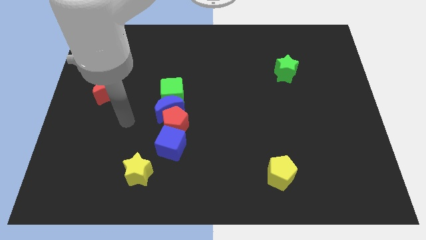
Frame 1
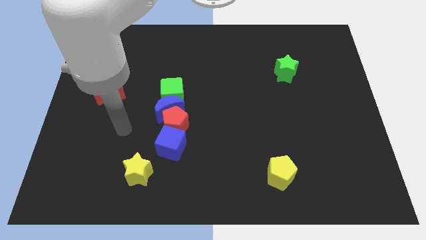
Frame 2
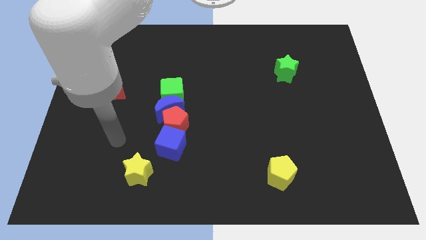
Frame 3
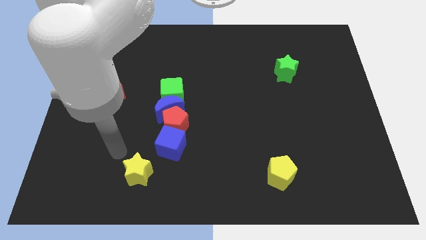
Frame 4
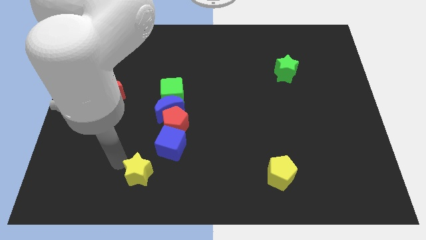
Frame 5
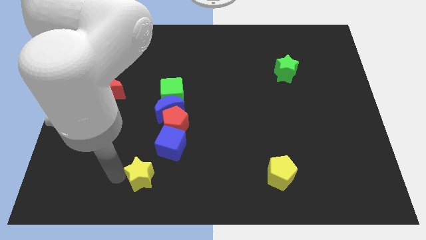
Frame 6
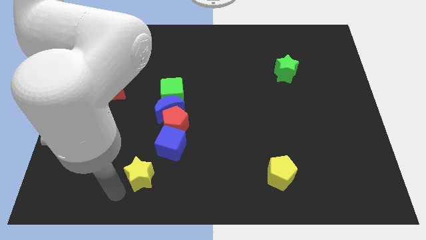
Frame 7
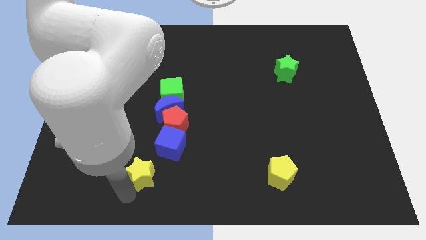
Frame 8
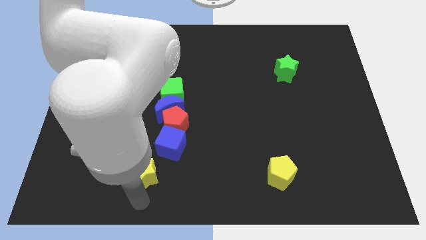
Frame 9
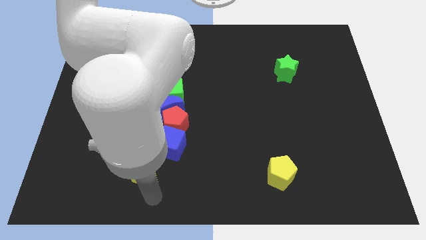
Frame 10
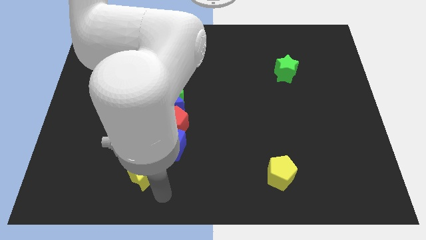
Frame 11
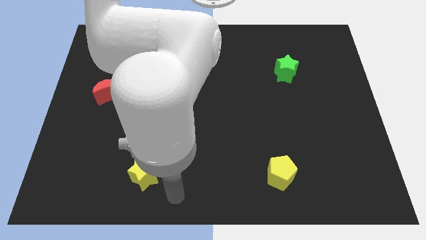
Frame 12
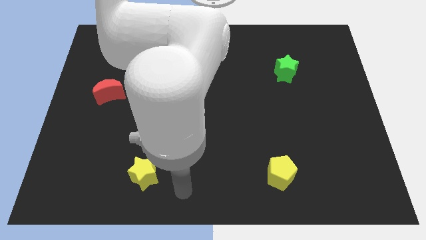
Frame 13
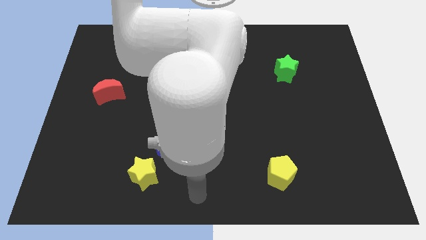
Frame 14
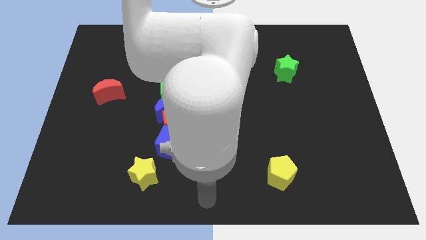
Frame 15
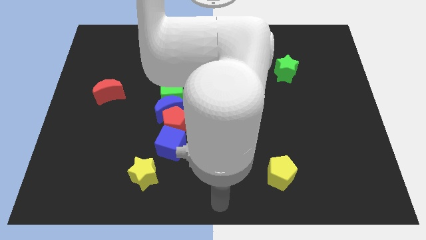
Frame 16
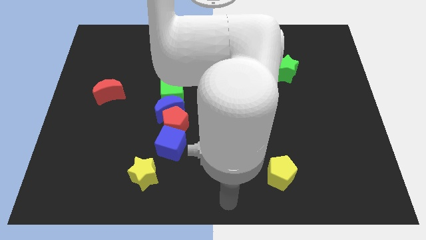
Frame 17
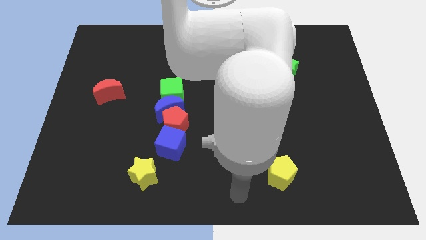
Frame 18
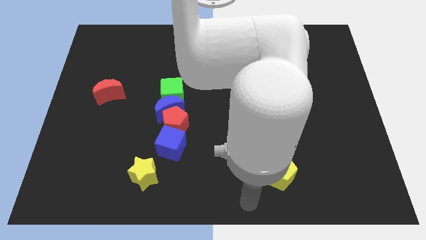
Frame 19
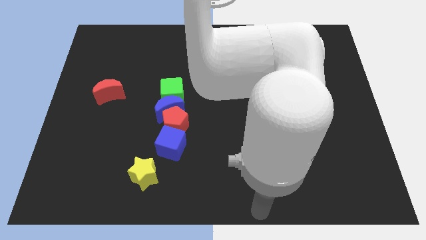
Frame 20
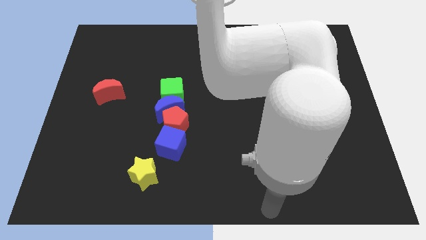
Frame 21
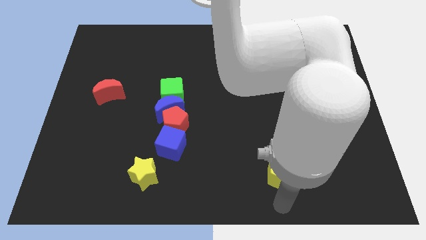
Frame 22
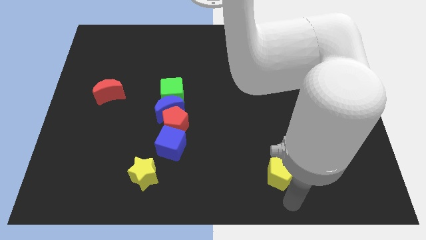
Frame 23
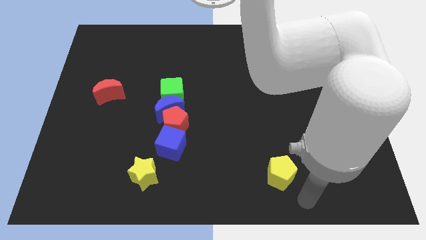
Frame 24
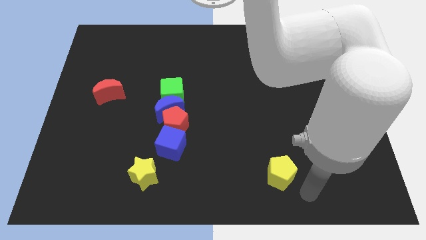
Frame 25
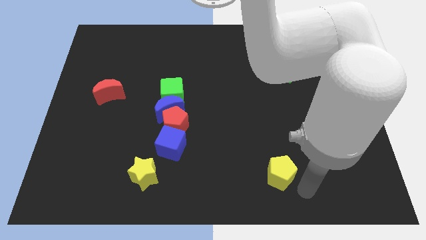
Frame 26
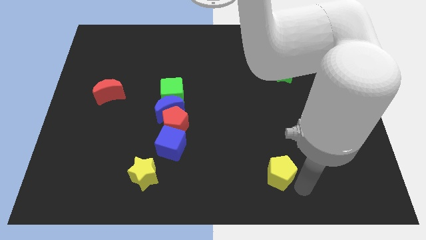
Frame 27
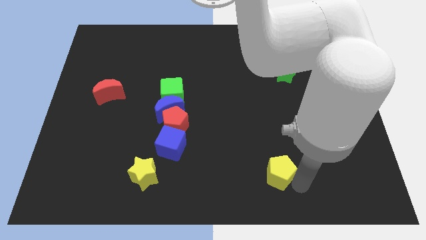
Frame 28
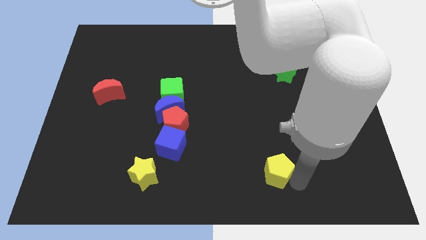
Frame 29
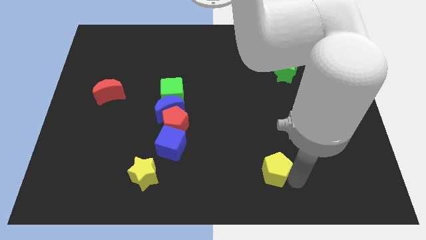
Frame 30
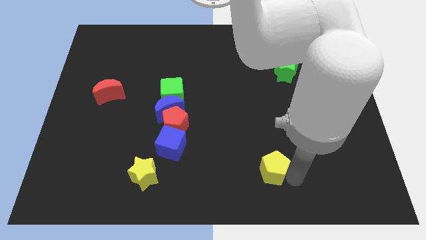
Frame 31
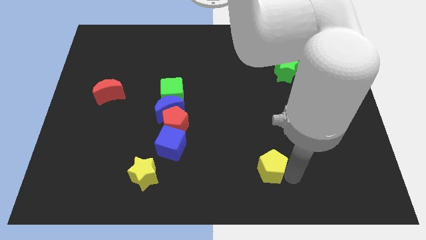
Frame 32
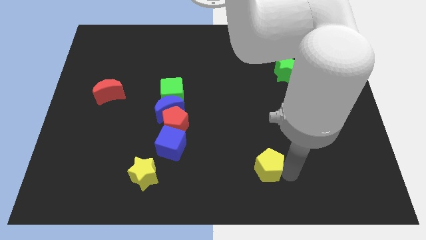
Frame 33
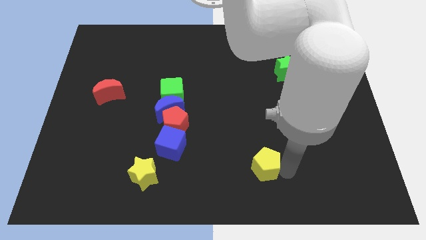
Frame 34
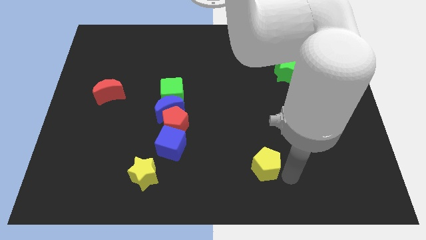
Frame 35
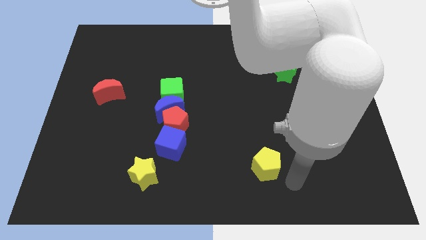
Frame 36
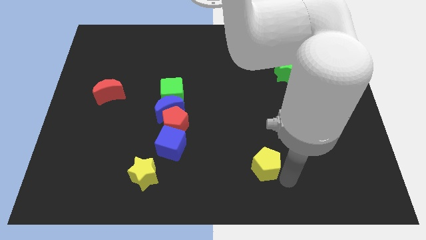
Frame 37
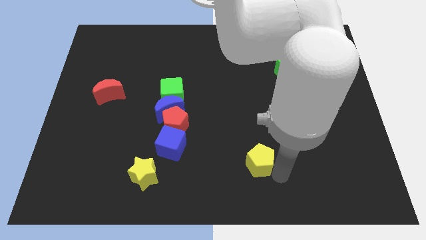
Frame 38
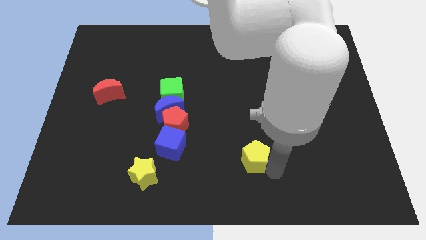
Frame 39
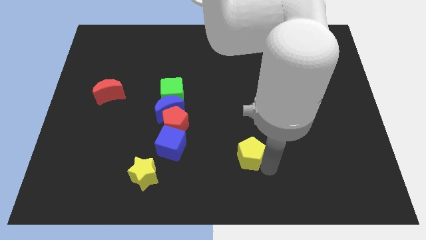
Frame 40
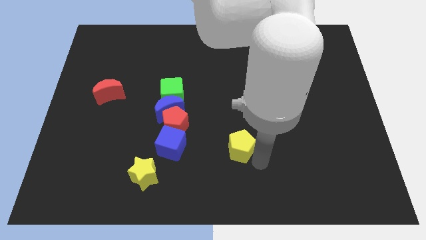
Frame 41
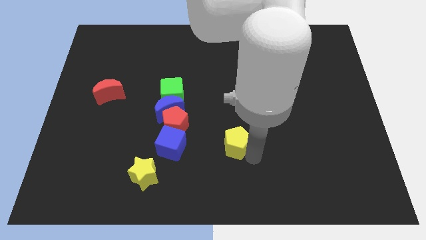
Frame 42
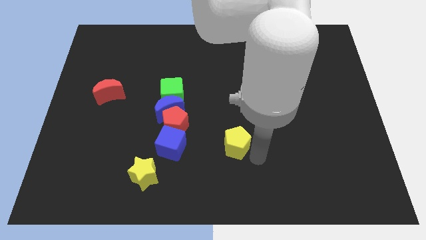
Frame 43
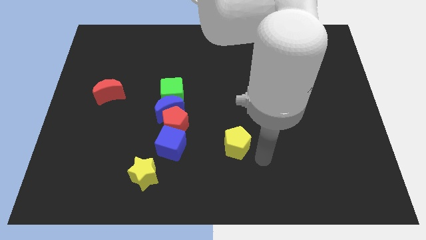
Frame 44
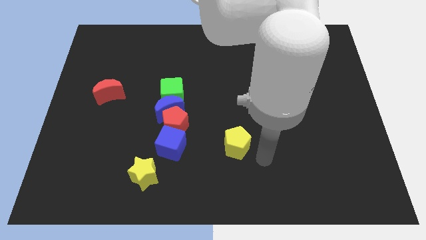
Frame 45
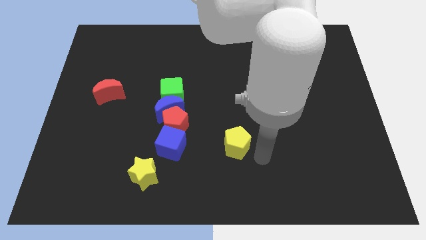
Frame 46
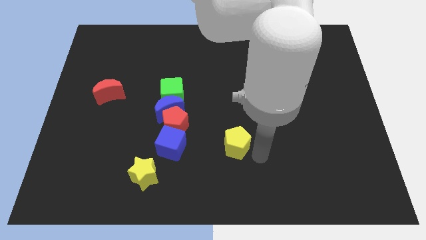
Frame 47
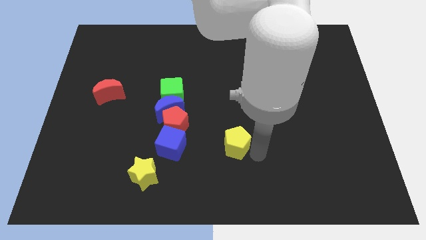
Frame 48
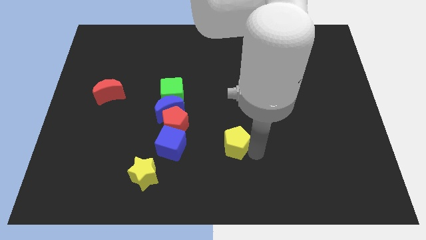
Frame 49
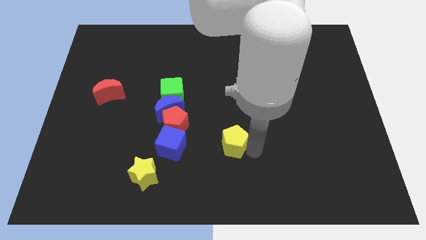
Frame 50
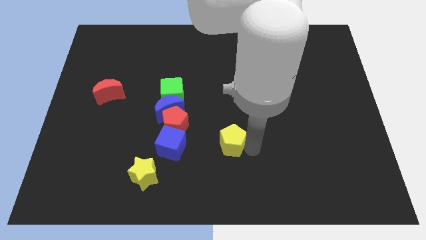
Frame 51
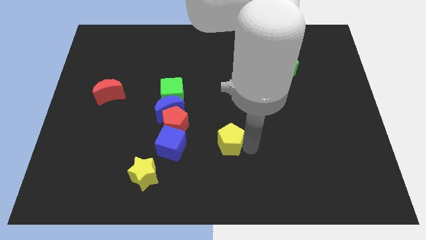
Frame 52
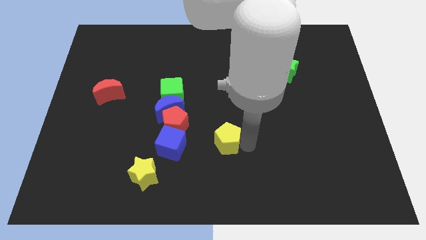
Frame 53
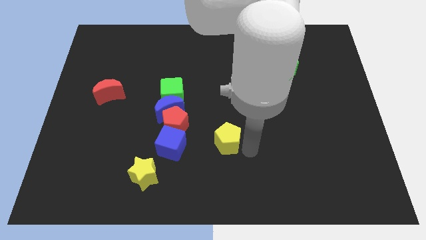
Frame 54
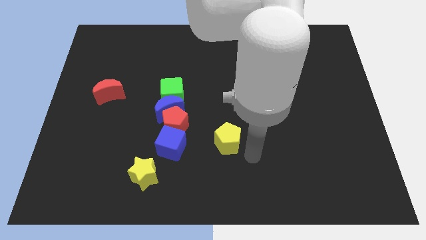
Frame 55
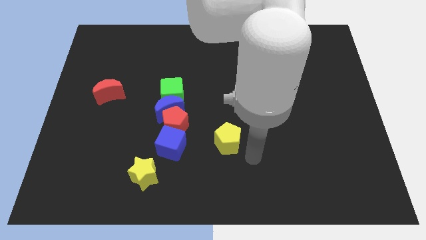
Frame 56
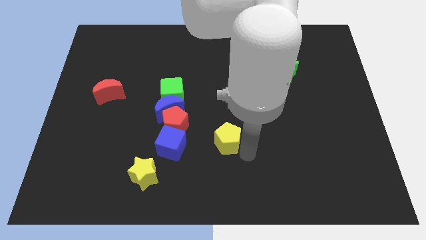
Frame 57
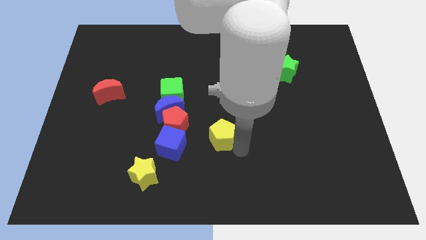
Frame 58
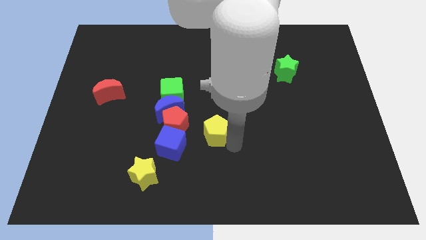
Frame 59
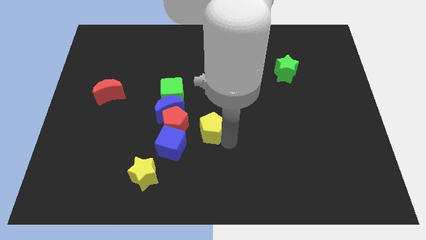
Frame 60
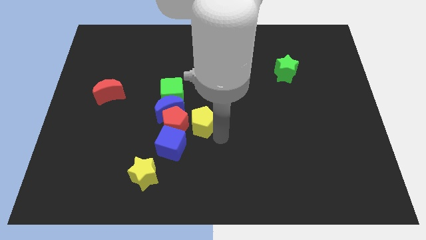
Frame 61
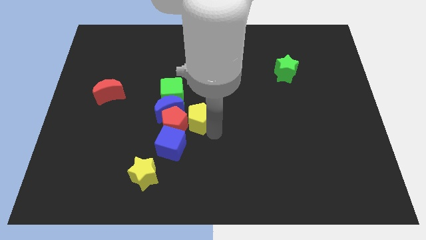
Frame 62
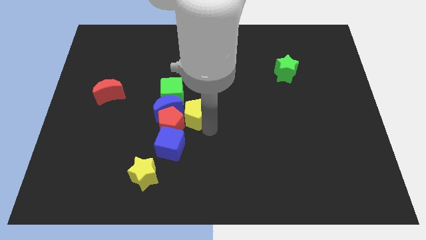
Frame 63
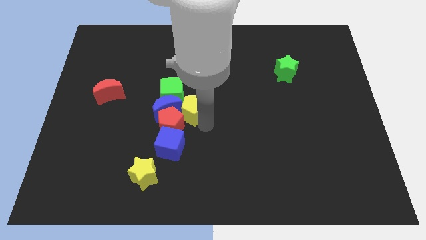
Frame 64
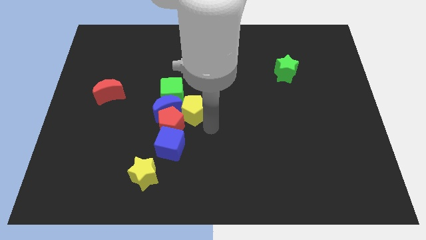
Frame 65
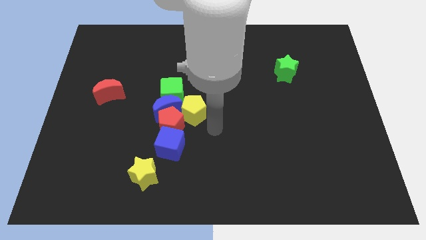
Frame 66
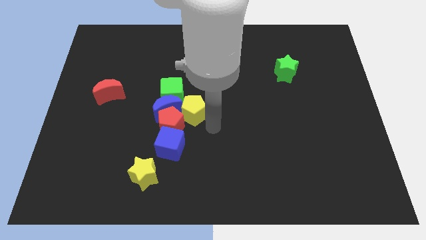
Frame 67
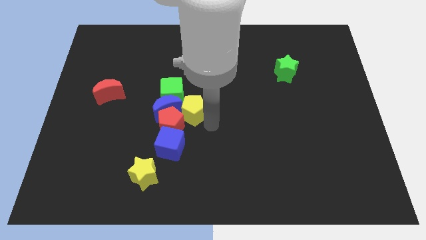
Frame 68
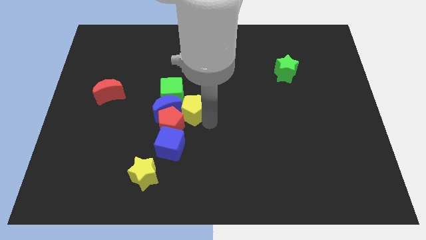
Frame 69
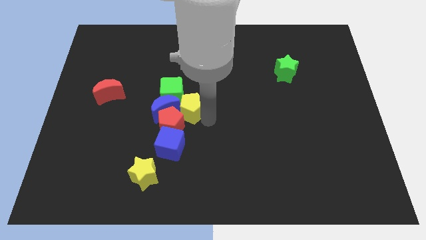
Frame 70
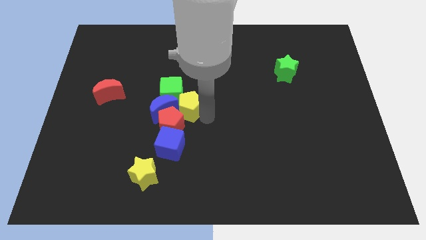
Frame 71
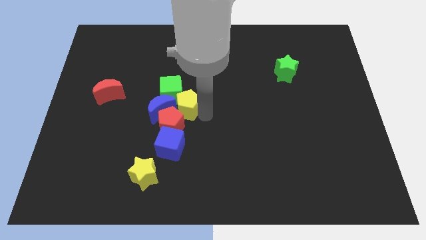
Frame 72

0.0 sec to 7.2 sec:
slide the yellow pentagon towards the green cube

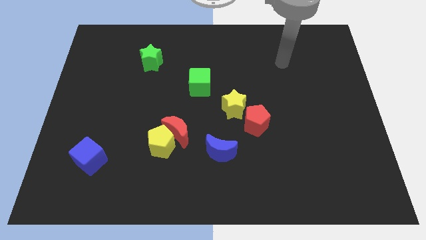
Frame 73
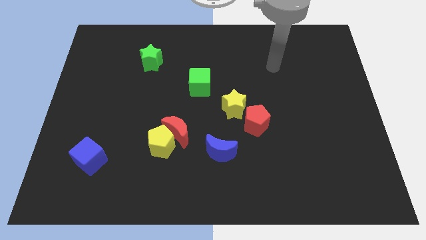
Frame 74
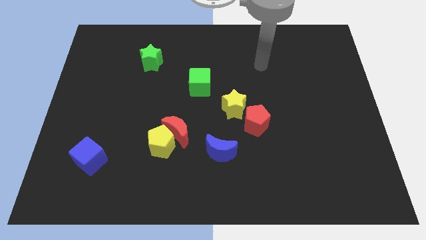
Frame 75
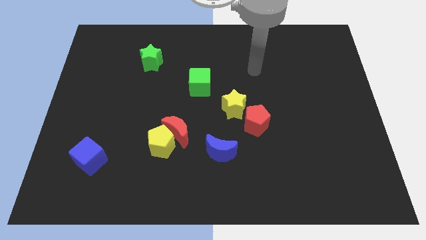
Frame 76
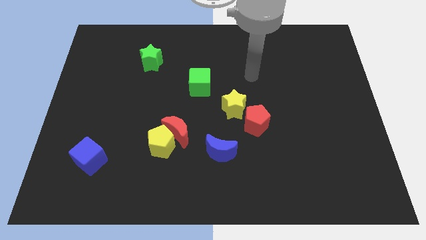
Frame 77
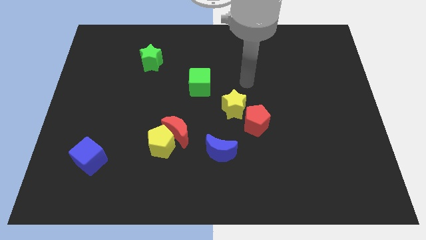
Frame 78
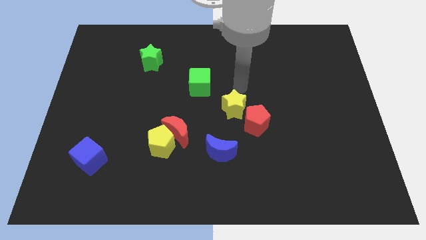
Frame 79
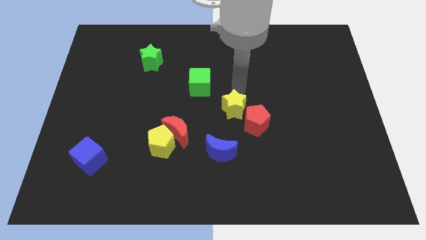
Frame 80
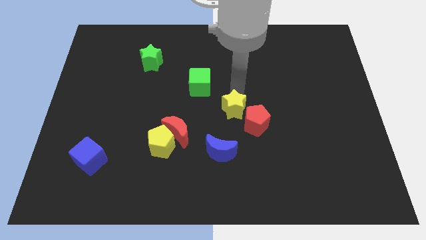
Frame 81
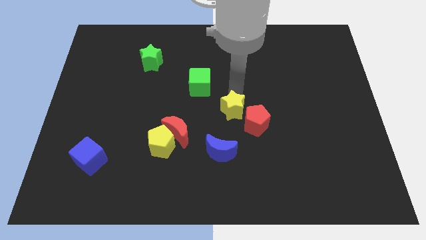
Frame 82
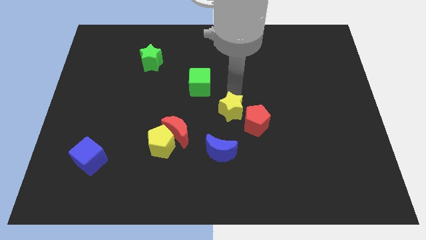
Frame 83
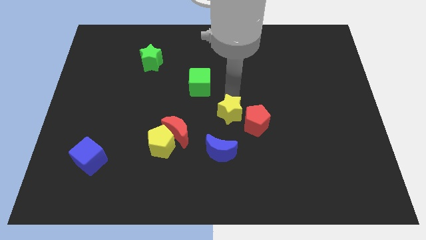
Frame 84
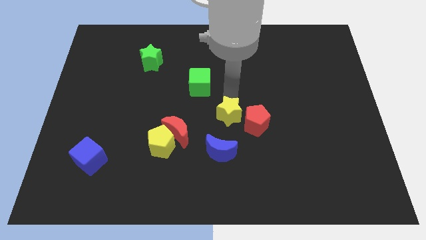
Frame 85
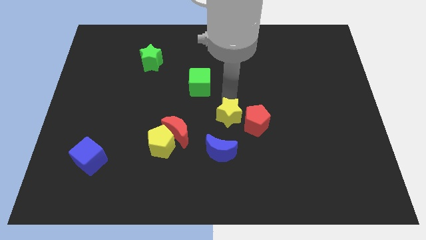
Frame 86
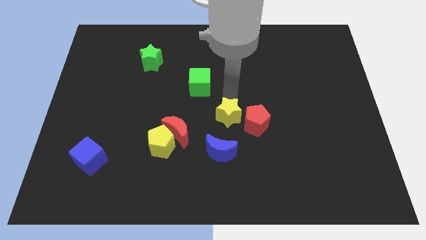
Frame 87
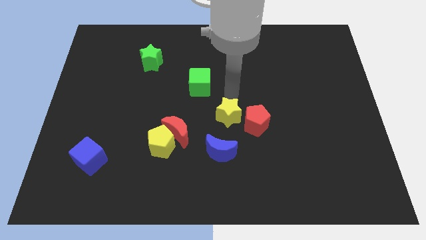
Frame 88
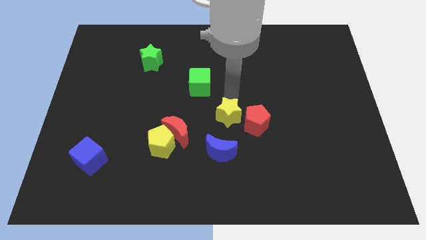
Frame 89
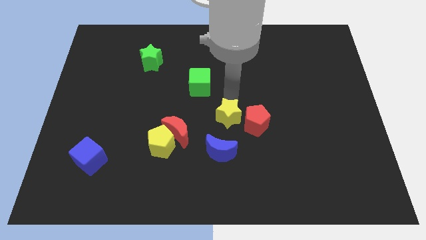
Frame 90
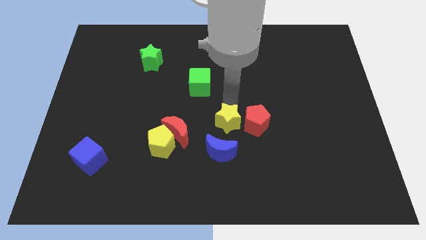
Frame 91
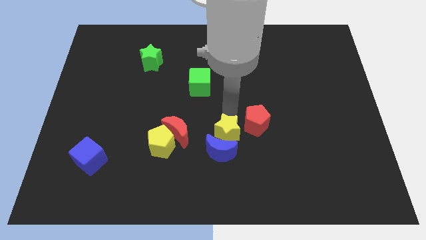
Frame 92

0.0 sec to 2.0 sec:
push the yellow star close to the blue moon
